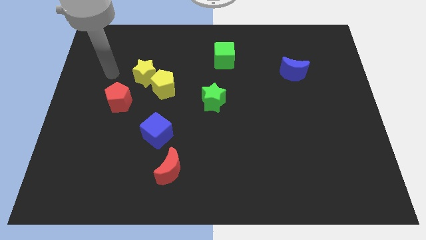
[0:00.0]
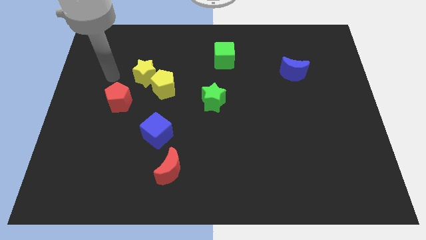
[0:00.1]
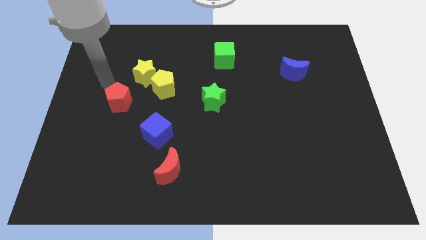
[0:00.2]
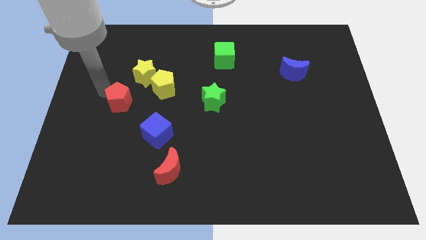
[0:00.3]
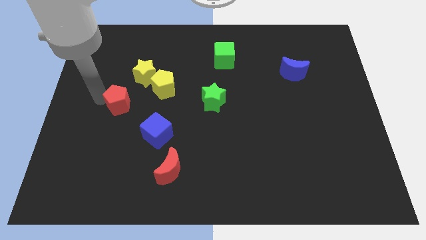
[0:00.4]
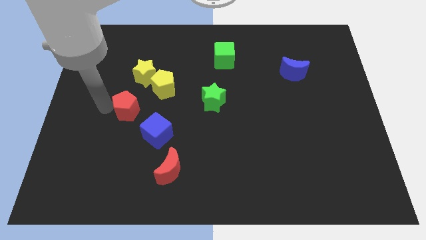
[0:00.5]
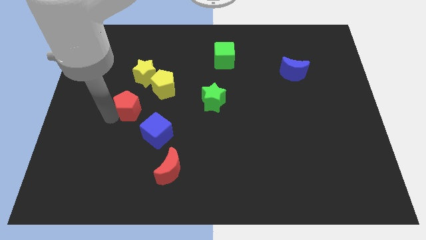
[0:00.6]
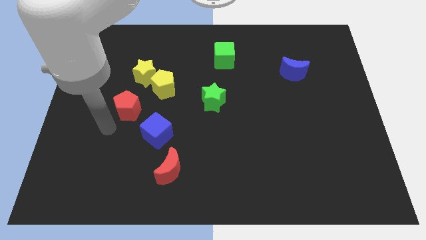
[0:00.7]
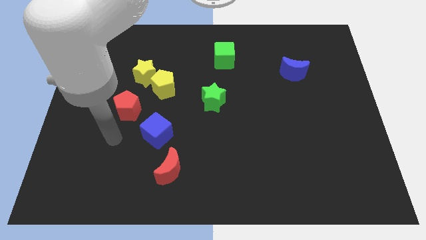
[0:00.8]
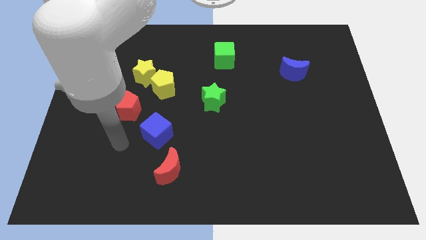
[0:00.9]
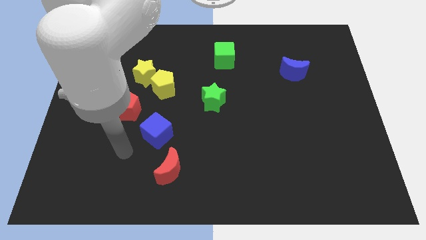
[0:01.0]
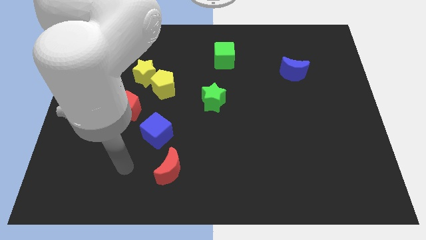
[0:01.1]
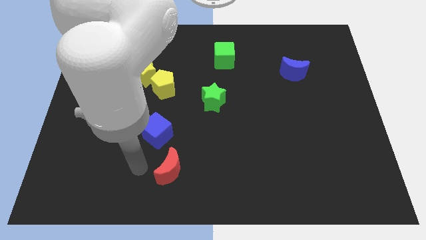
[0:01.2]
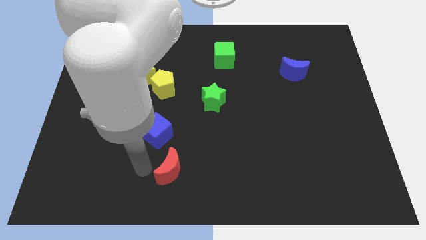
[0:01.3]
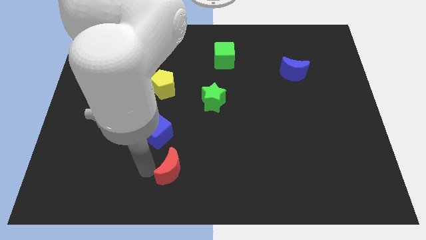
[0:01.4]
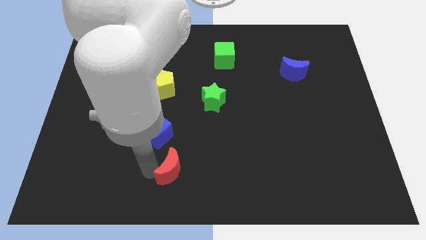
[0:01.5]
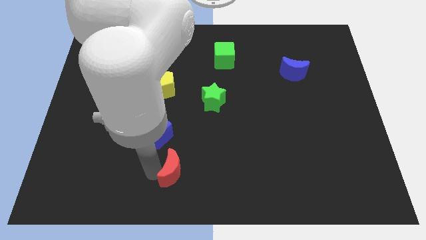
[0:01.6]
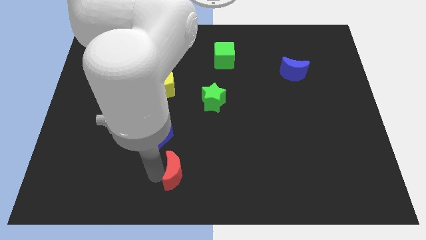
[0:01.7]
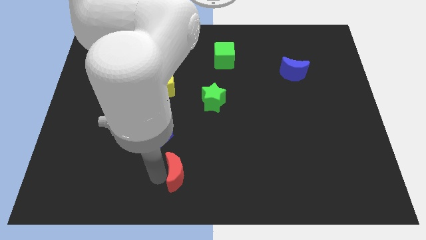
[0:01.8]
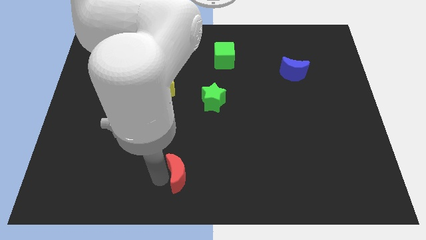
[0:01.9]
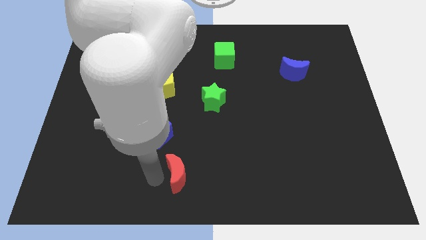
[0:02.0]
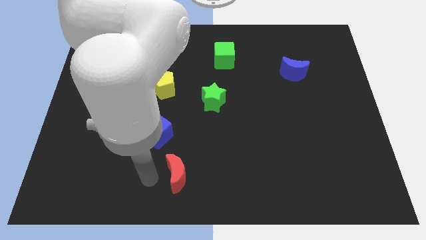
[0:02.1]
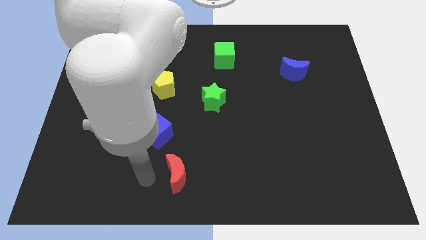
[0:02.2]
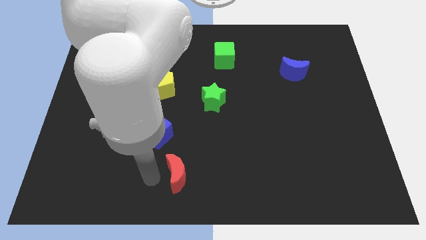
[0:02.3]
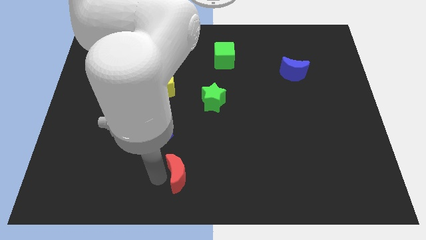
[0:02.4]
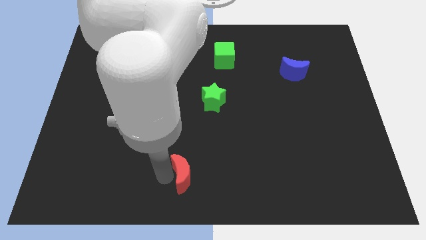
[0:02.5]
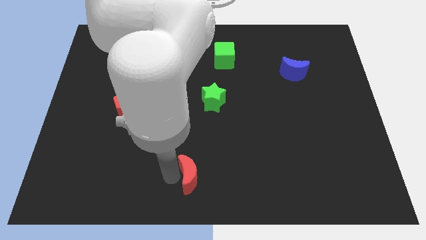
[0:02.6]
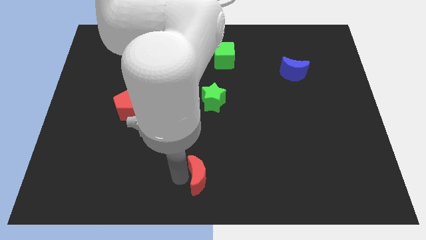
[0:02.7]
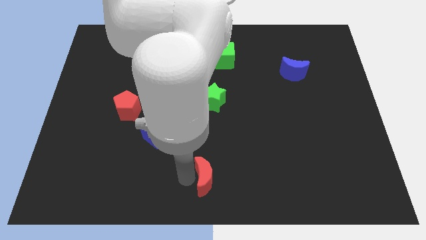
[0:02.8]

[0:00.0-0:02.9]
move the red moon to the right a little

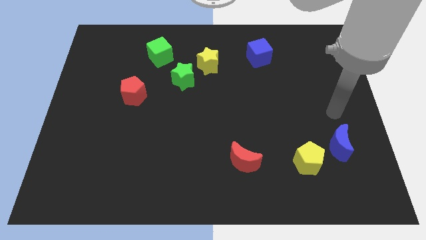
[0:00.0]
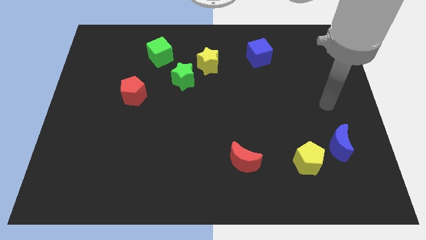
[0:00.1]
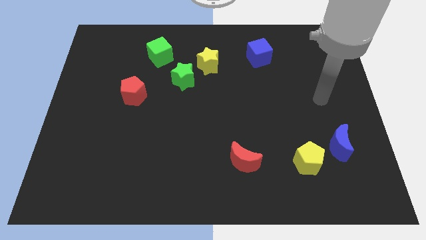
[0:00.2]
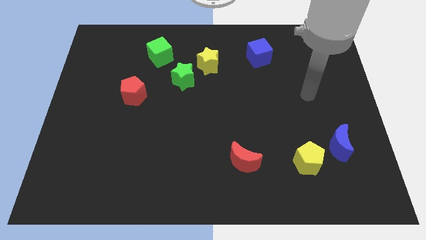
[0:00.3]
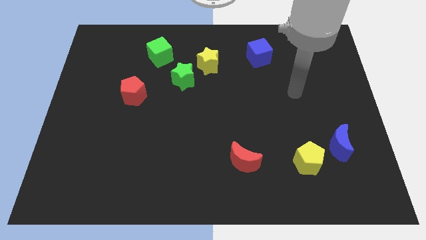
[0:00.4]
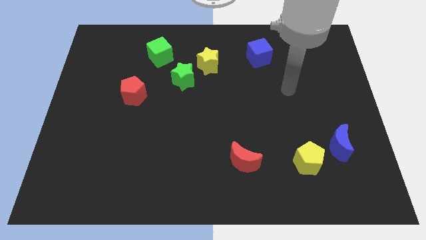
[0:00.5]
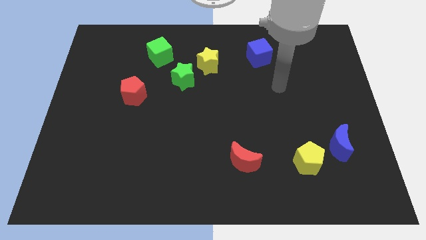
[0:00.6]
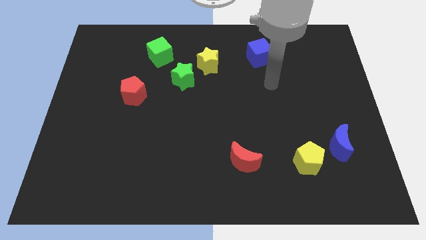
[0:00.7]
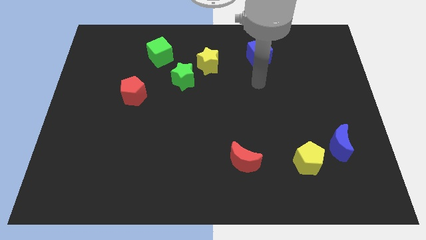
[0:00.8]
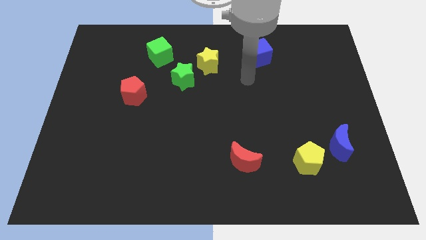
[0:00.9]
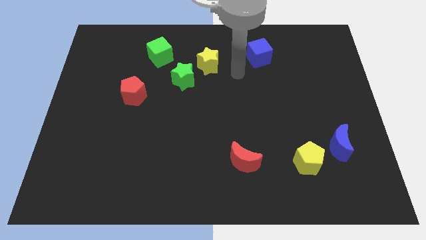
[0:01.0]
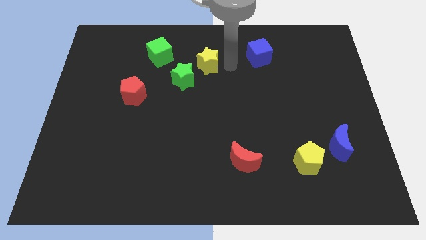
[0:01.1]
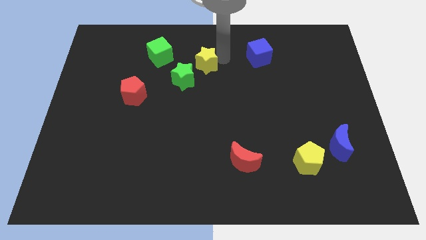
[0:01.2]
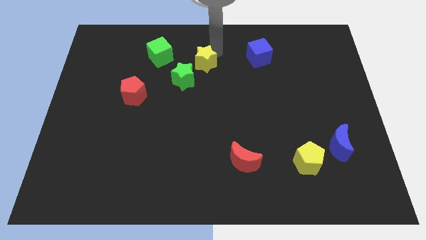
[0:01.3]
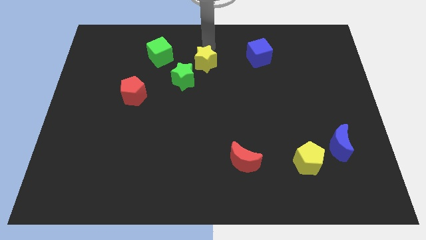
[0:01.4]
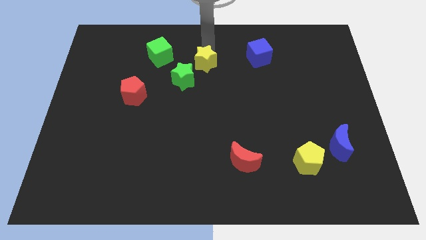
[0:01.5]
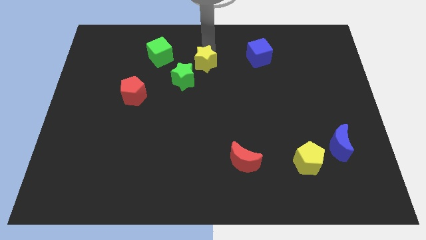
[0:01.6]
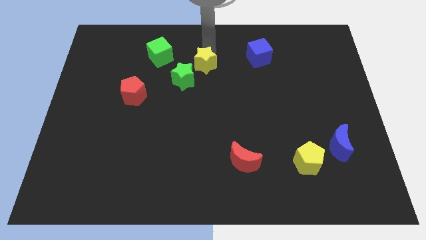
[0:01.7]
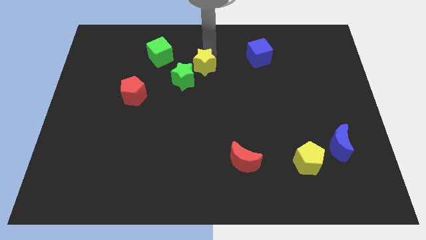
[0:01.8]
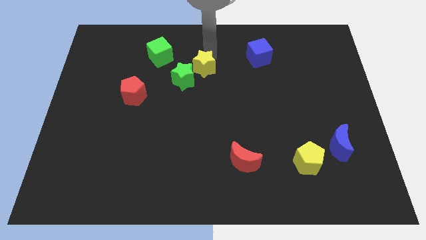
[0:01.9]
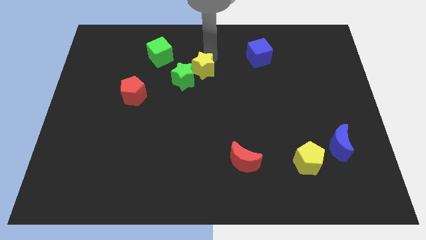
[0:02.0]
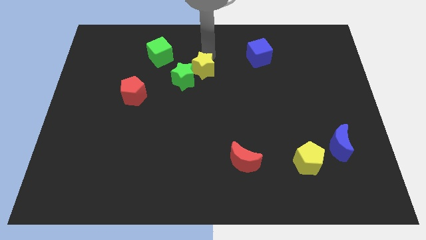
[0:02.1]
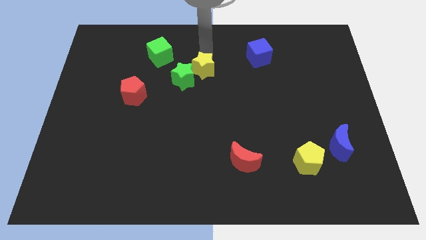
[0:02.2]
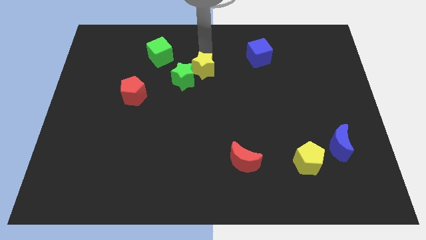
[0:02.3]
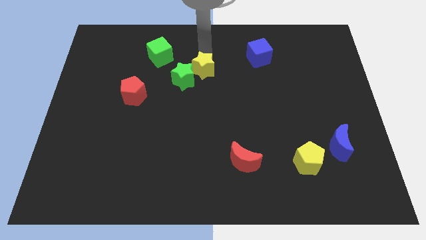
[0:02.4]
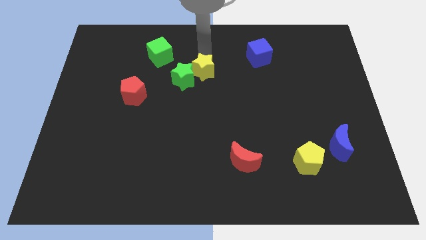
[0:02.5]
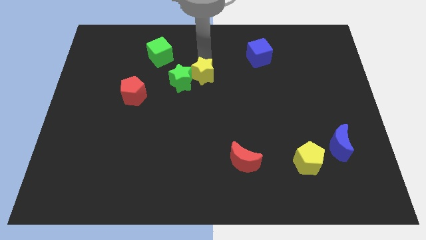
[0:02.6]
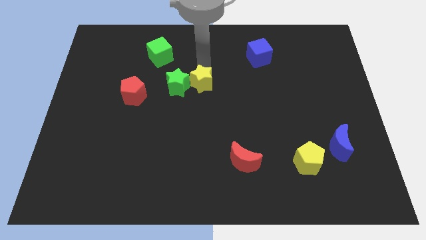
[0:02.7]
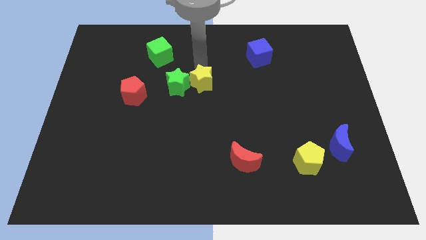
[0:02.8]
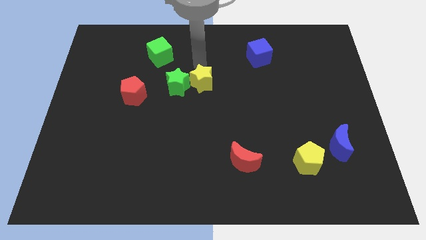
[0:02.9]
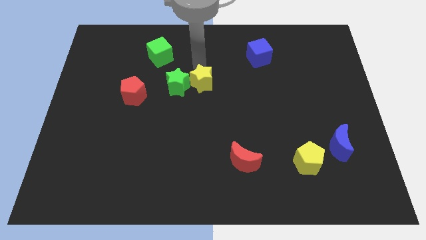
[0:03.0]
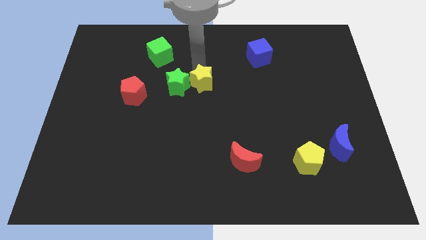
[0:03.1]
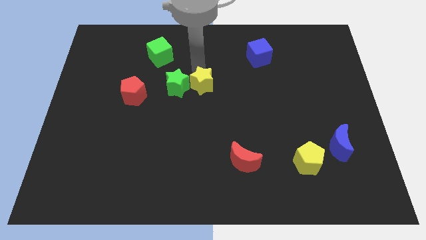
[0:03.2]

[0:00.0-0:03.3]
slightly push the yellow star down

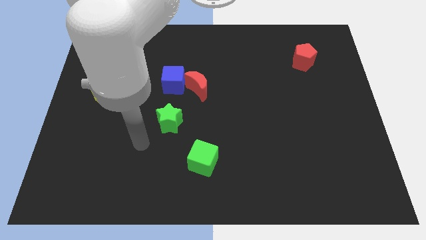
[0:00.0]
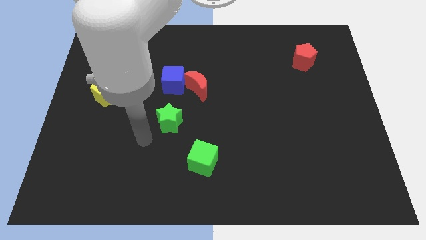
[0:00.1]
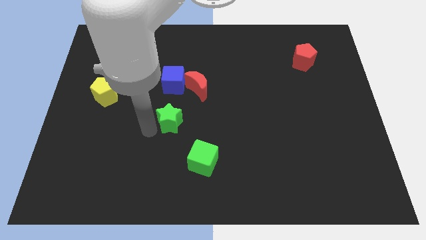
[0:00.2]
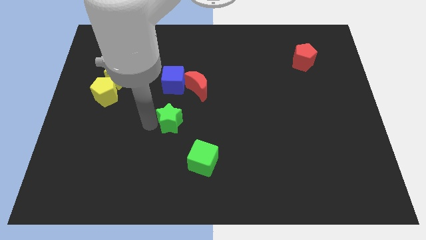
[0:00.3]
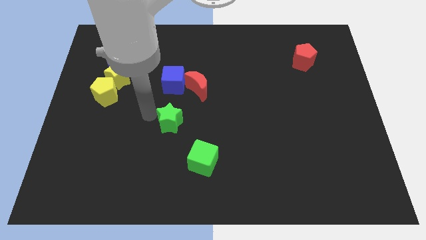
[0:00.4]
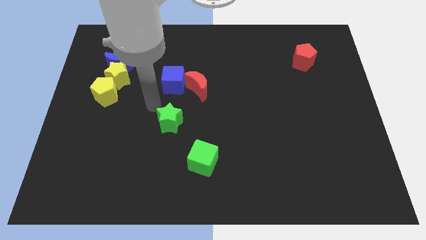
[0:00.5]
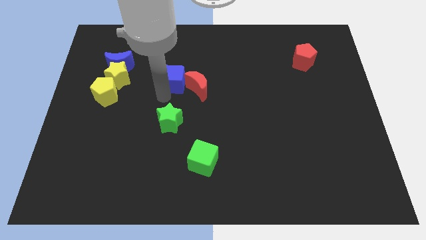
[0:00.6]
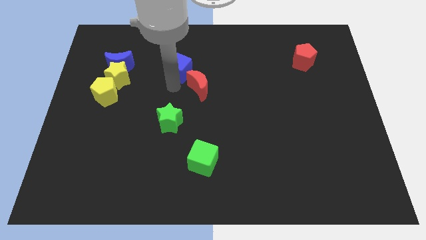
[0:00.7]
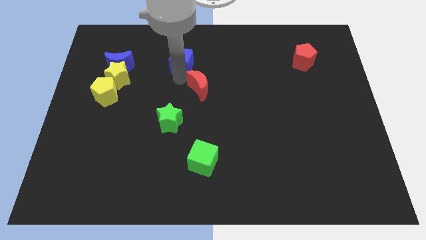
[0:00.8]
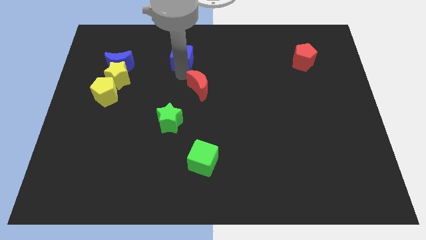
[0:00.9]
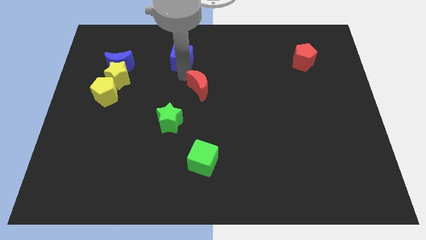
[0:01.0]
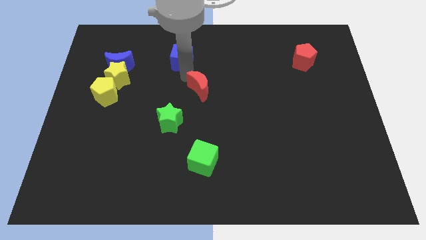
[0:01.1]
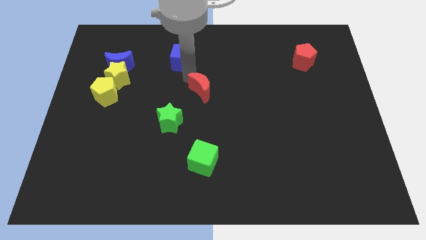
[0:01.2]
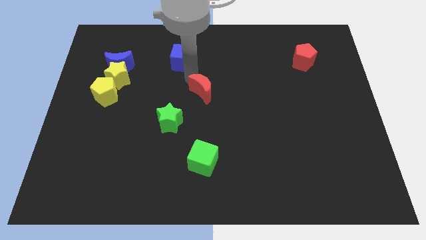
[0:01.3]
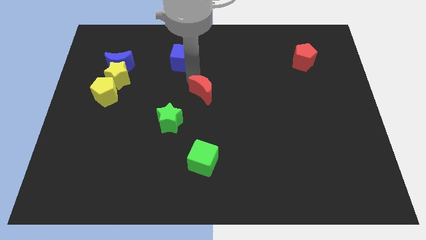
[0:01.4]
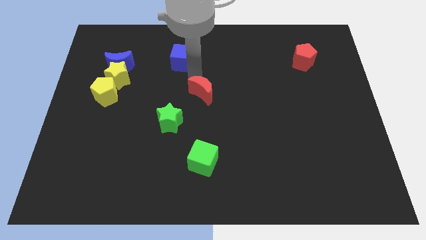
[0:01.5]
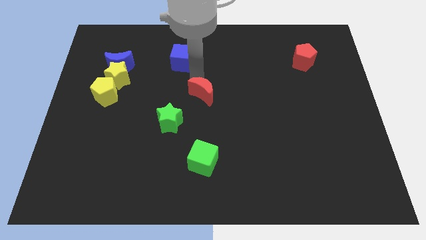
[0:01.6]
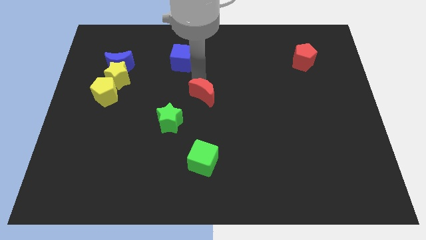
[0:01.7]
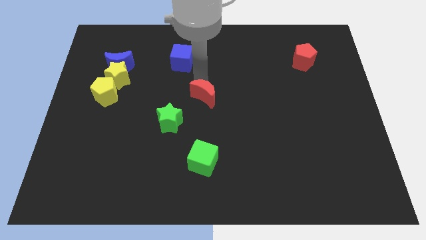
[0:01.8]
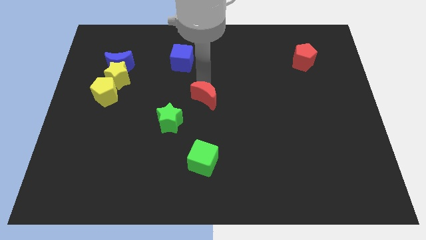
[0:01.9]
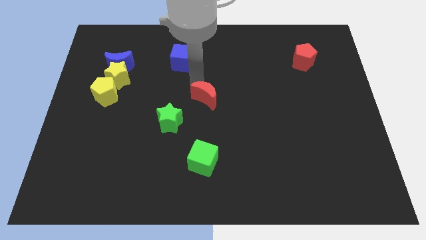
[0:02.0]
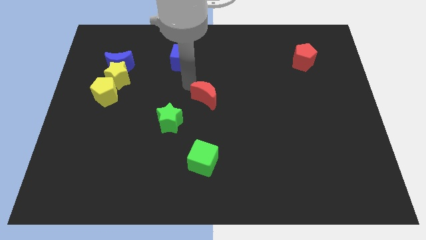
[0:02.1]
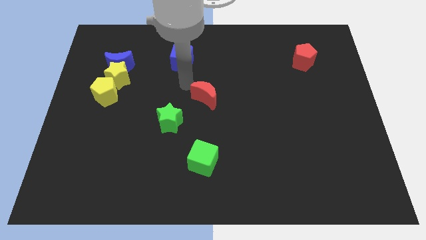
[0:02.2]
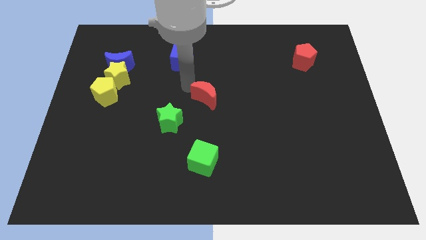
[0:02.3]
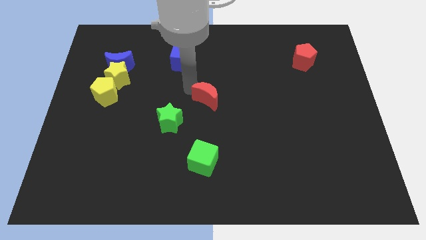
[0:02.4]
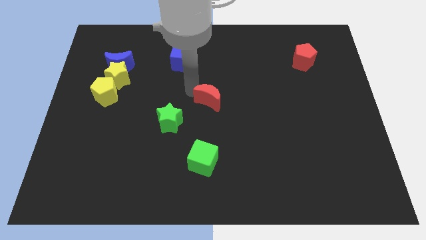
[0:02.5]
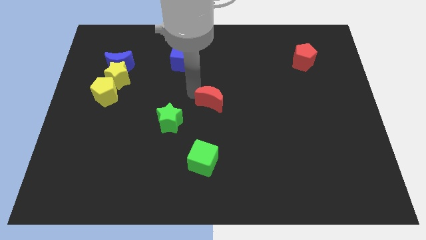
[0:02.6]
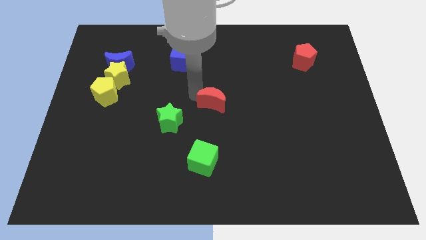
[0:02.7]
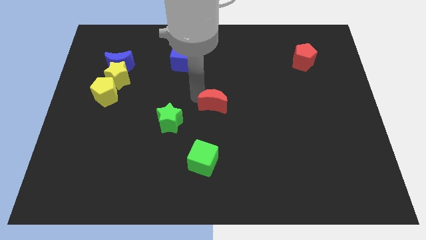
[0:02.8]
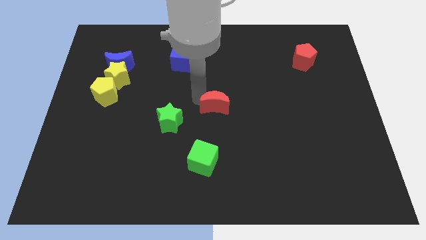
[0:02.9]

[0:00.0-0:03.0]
push the red moon down and then right a little
